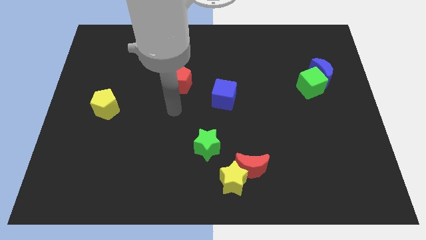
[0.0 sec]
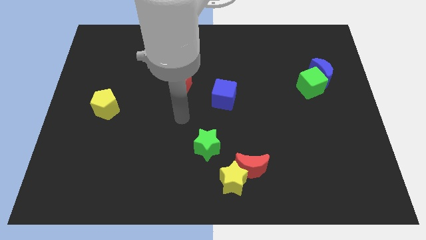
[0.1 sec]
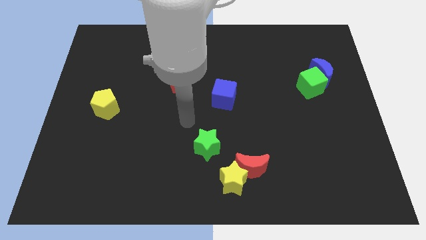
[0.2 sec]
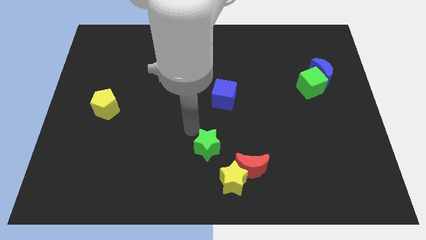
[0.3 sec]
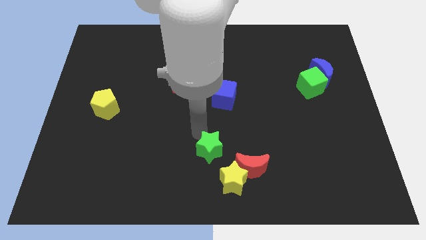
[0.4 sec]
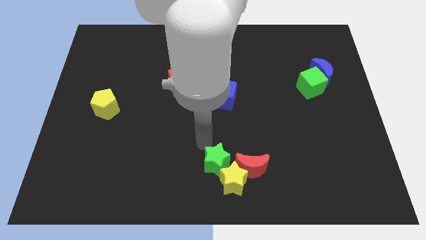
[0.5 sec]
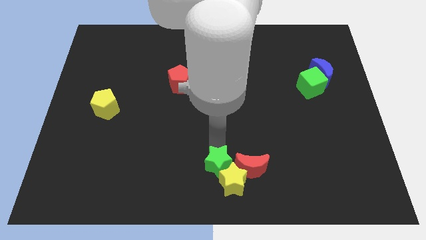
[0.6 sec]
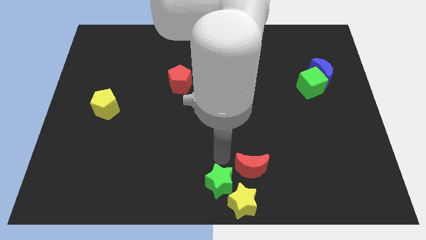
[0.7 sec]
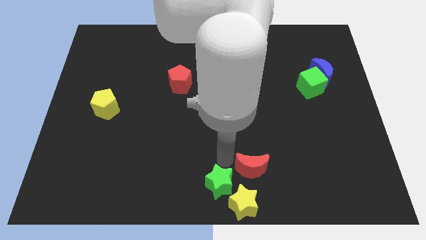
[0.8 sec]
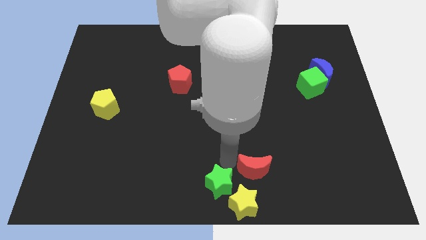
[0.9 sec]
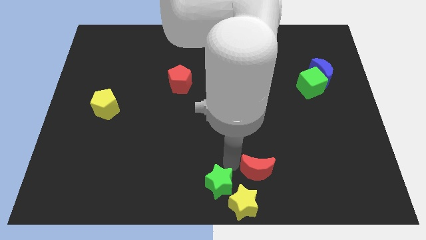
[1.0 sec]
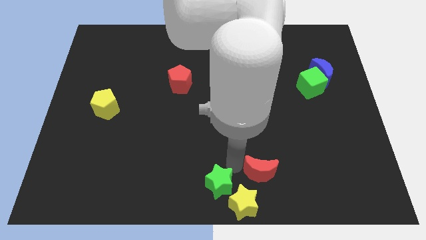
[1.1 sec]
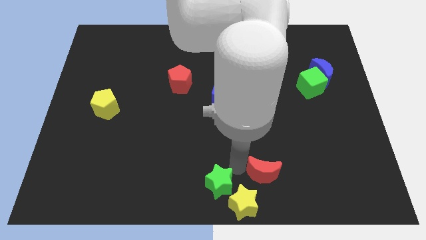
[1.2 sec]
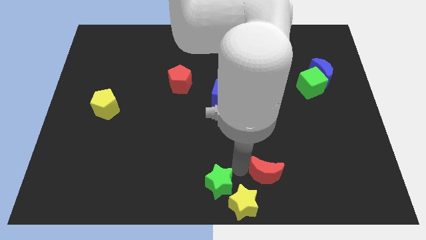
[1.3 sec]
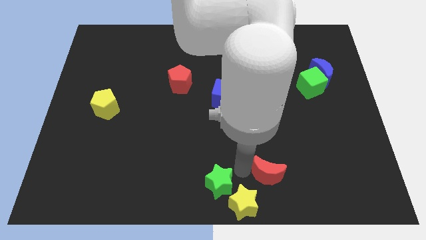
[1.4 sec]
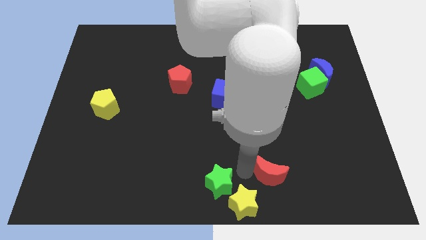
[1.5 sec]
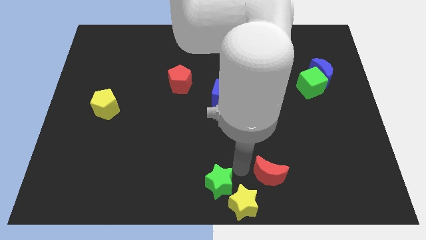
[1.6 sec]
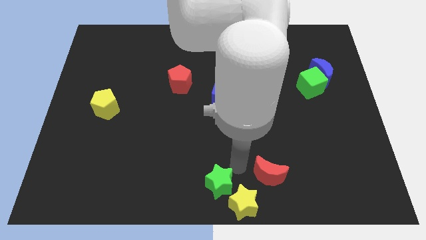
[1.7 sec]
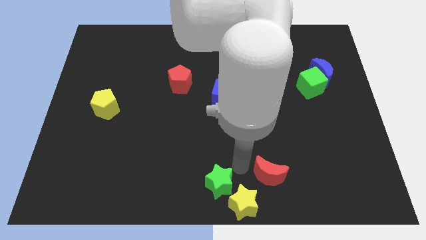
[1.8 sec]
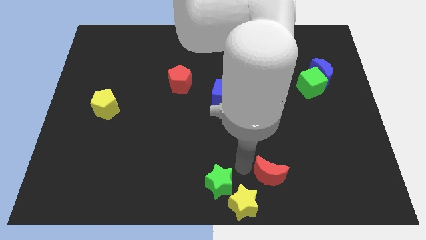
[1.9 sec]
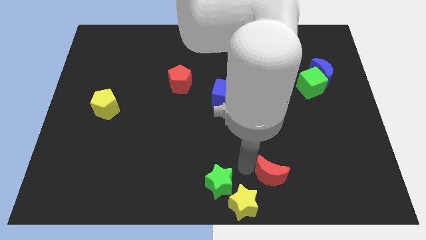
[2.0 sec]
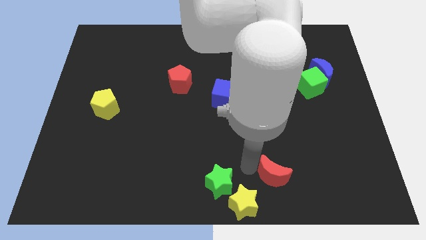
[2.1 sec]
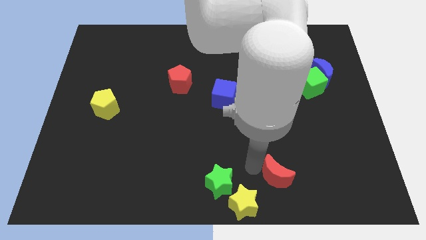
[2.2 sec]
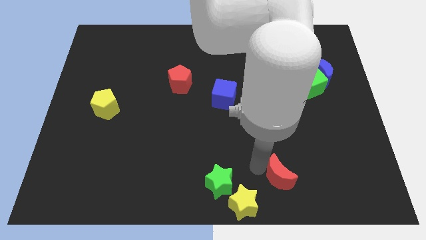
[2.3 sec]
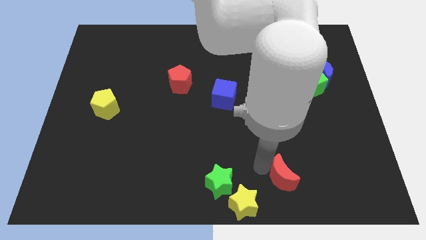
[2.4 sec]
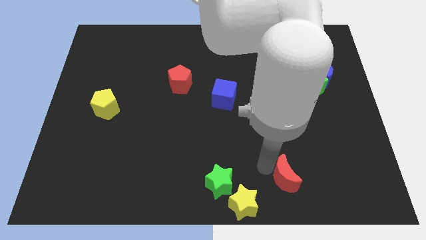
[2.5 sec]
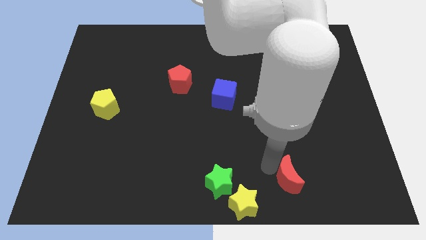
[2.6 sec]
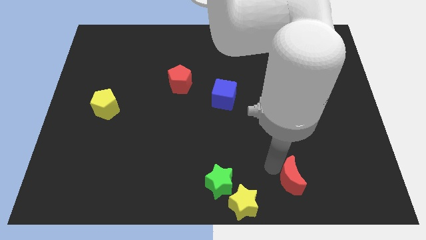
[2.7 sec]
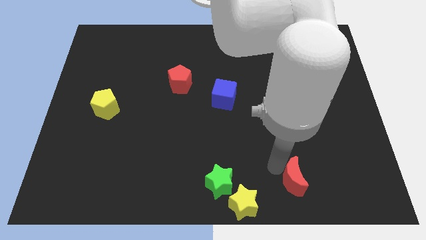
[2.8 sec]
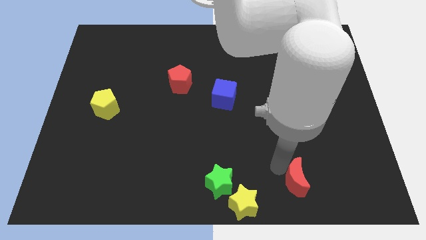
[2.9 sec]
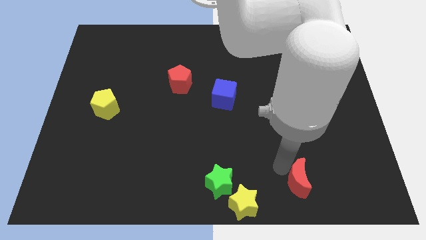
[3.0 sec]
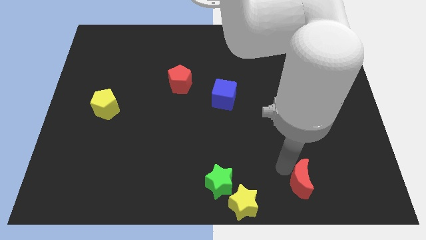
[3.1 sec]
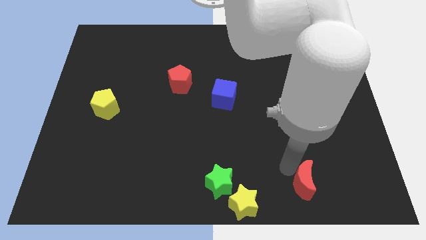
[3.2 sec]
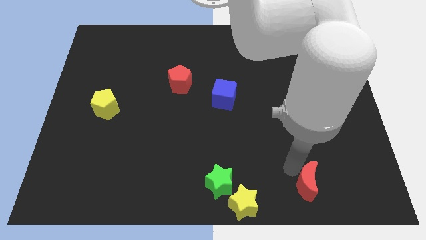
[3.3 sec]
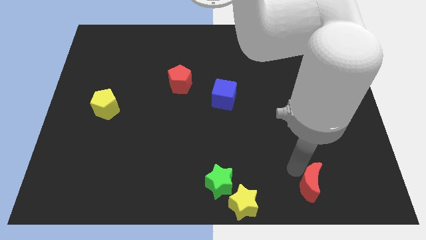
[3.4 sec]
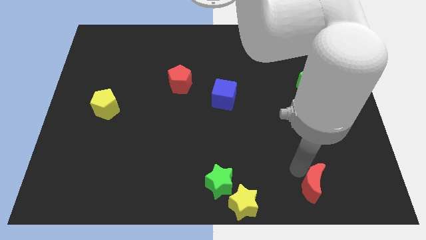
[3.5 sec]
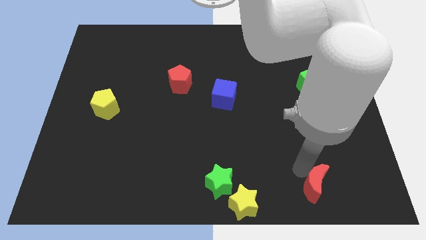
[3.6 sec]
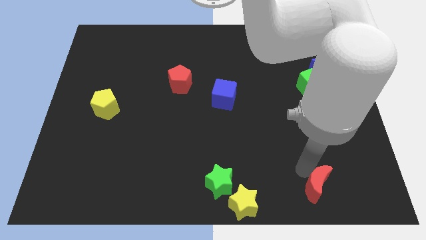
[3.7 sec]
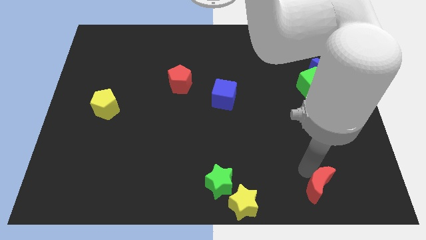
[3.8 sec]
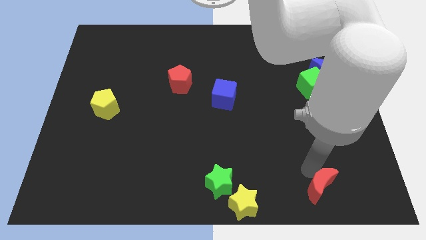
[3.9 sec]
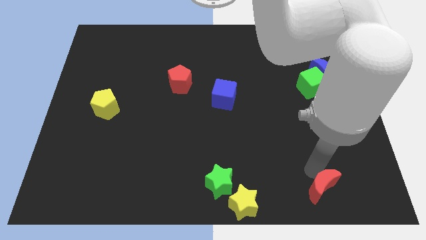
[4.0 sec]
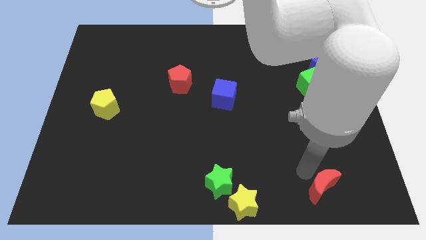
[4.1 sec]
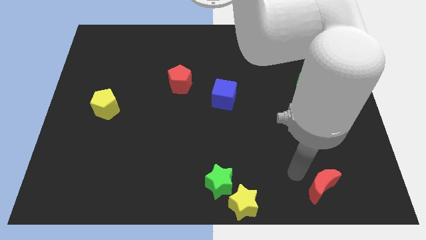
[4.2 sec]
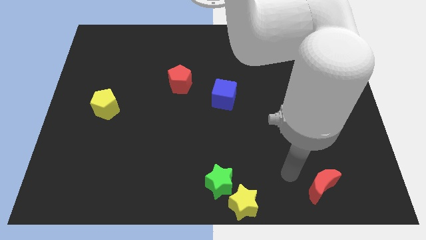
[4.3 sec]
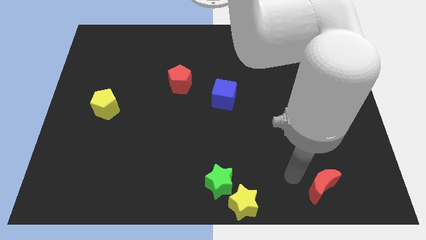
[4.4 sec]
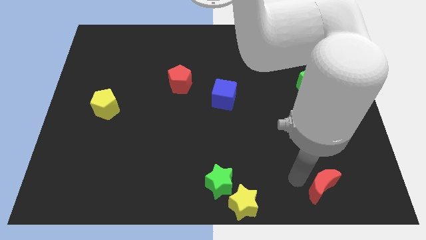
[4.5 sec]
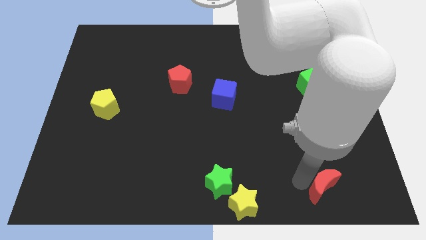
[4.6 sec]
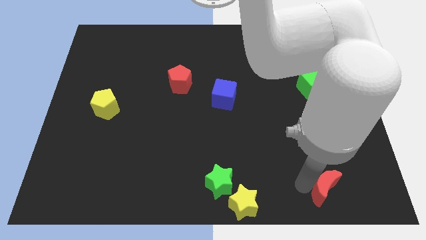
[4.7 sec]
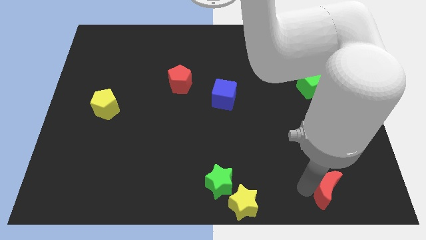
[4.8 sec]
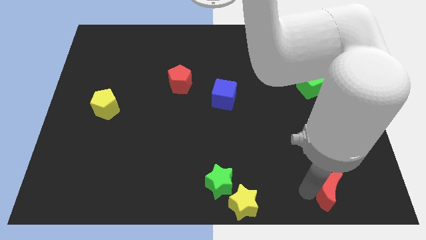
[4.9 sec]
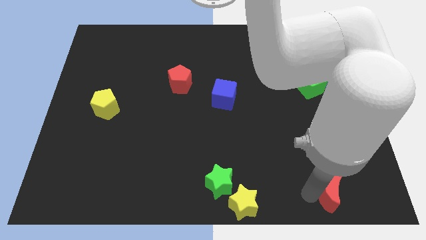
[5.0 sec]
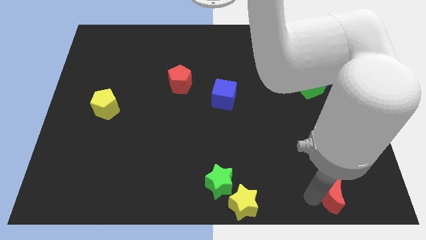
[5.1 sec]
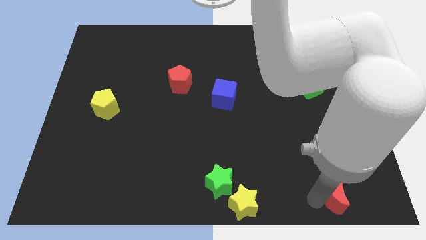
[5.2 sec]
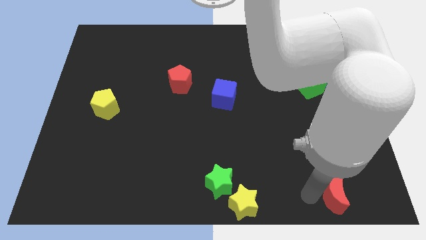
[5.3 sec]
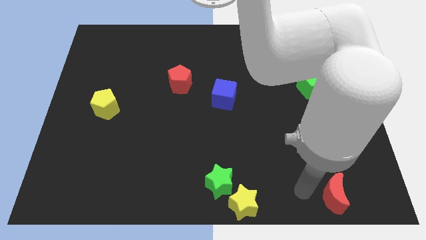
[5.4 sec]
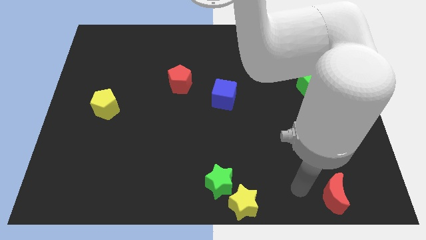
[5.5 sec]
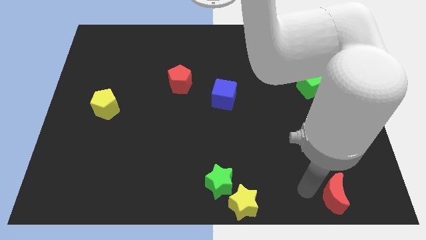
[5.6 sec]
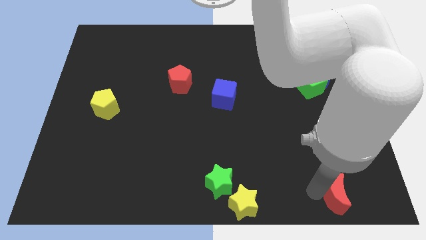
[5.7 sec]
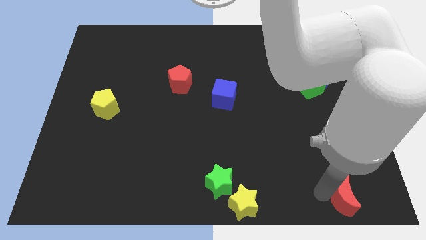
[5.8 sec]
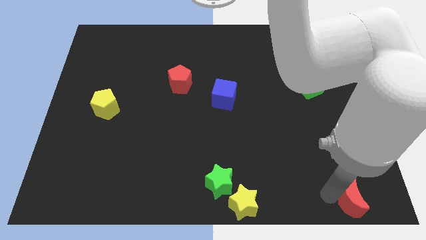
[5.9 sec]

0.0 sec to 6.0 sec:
slide the red moon to the bottom right

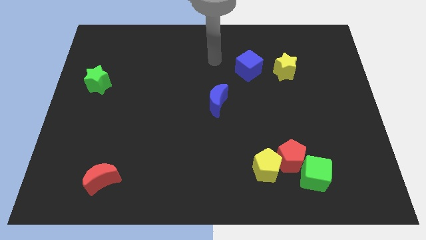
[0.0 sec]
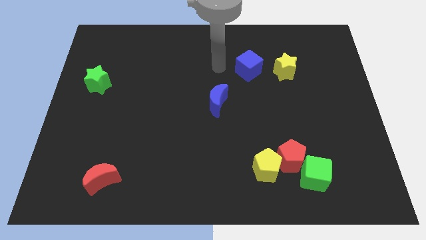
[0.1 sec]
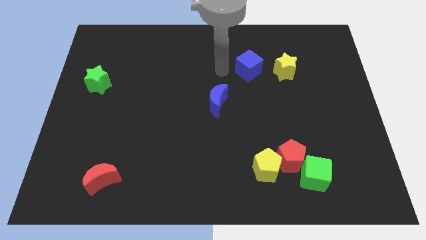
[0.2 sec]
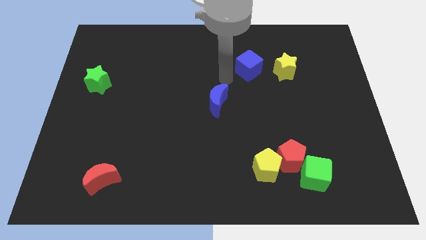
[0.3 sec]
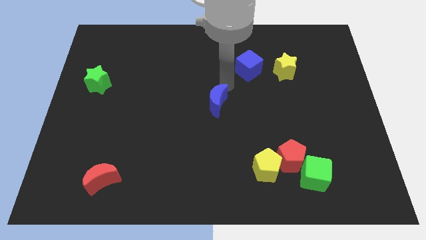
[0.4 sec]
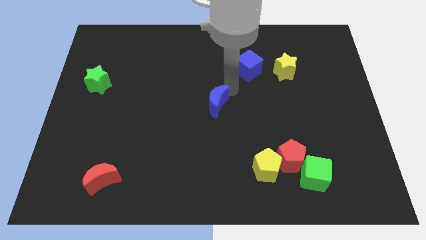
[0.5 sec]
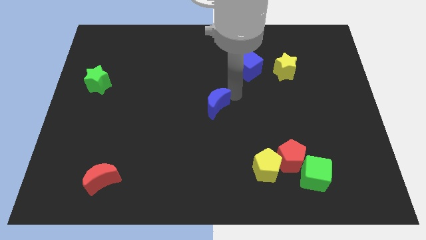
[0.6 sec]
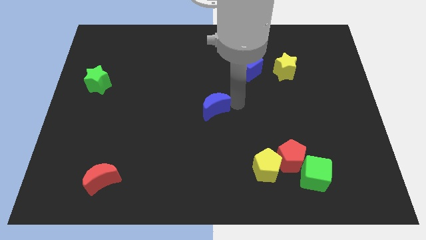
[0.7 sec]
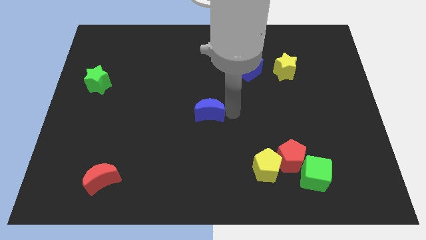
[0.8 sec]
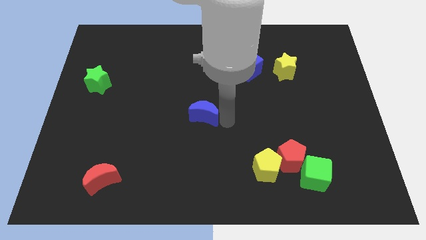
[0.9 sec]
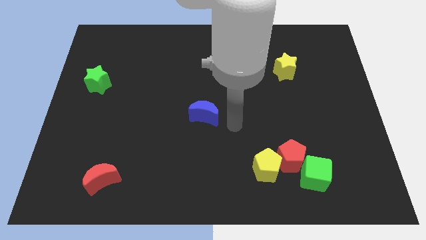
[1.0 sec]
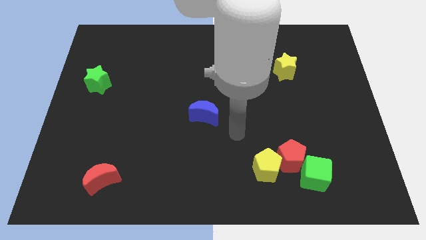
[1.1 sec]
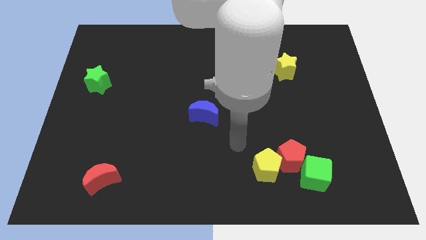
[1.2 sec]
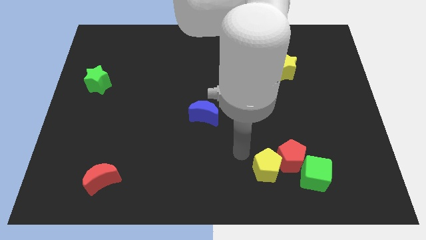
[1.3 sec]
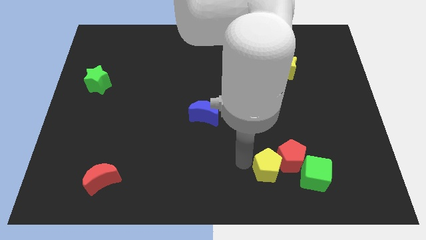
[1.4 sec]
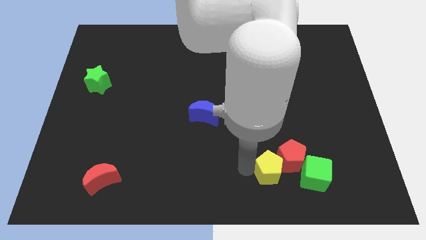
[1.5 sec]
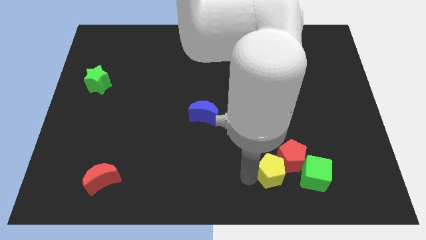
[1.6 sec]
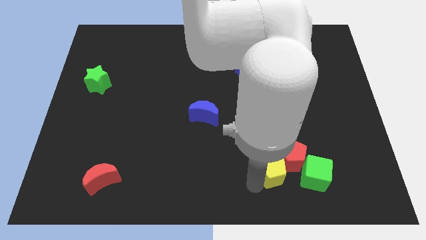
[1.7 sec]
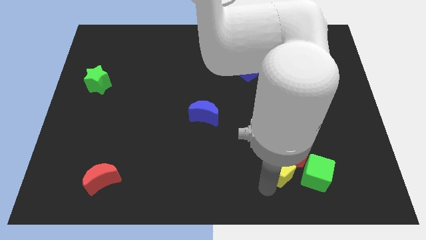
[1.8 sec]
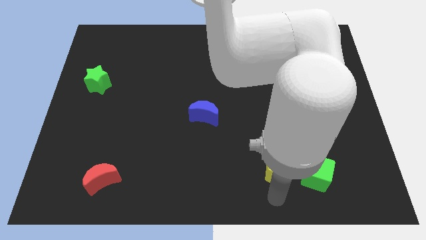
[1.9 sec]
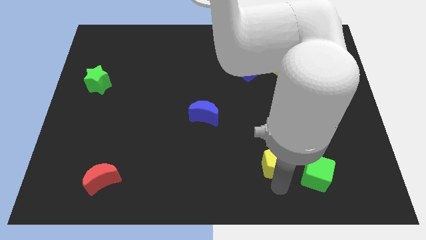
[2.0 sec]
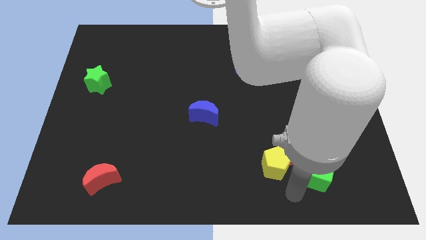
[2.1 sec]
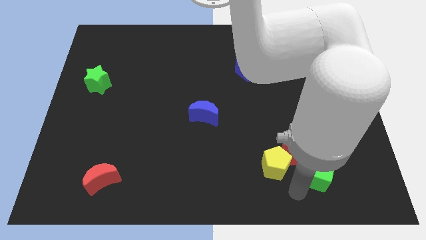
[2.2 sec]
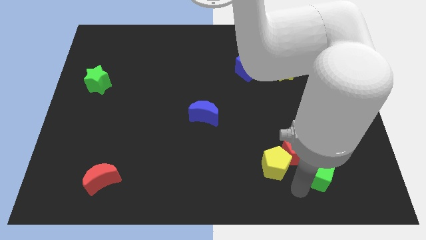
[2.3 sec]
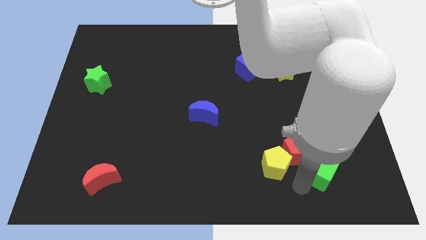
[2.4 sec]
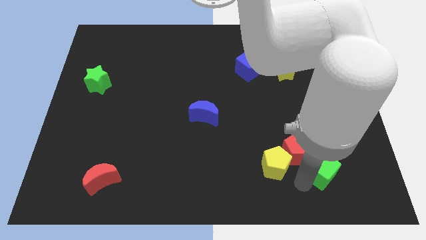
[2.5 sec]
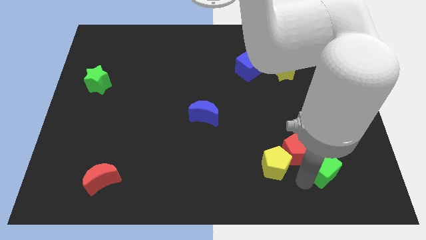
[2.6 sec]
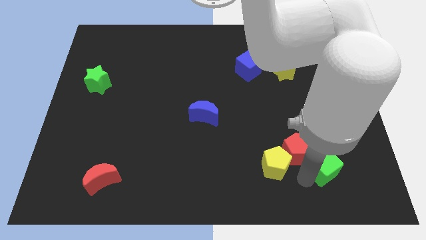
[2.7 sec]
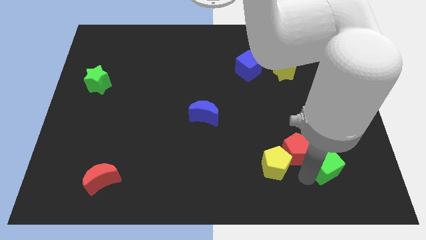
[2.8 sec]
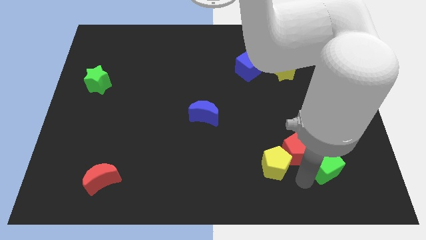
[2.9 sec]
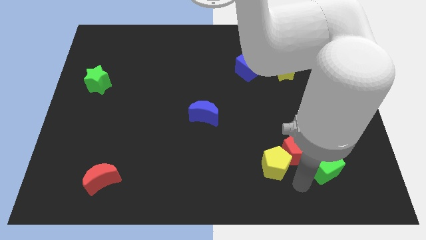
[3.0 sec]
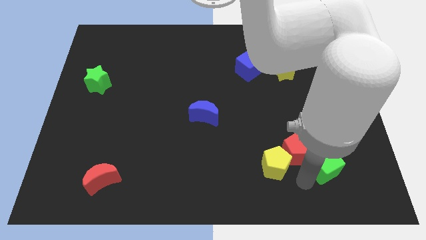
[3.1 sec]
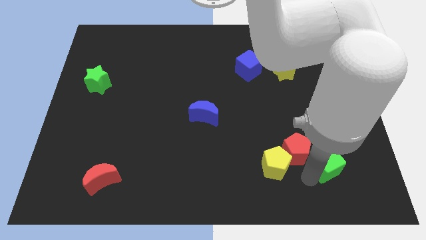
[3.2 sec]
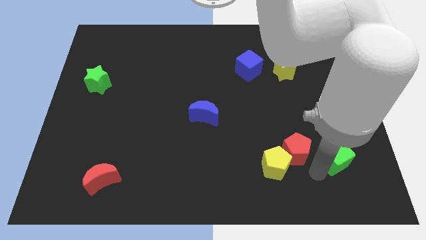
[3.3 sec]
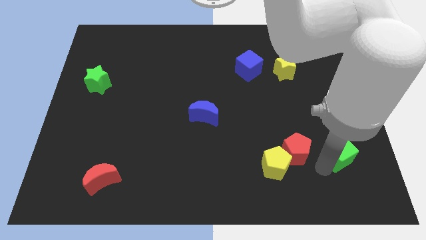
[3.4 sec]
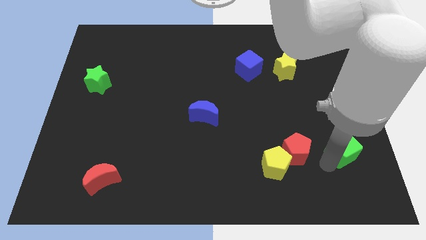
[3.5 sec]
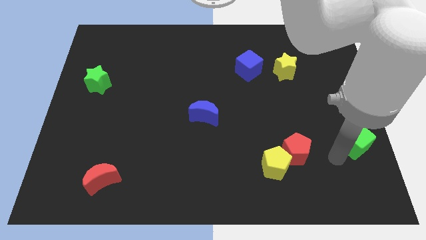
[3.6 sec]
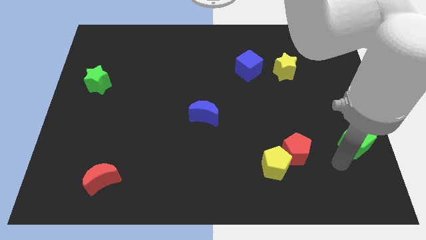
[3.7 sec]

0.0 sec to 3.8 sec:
put the green cube to the center right
